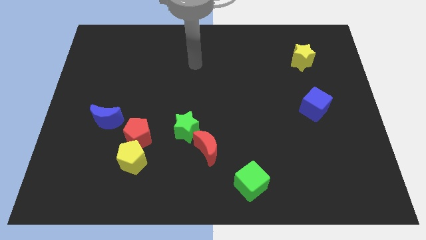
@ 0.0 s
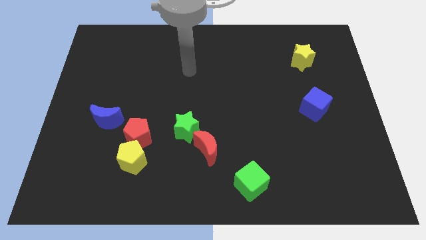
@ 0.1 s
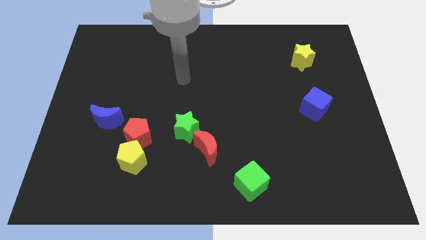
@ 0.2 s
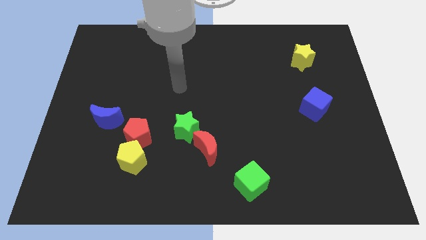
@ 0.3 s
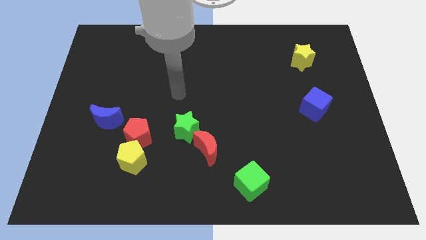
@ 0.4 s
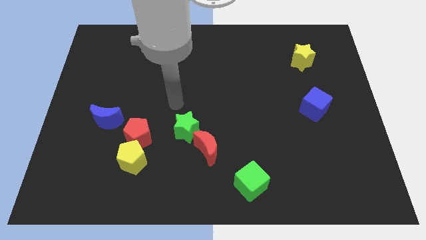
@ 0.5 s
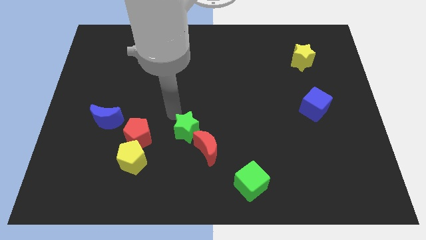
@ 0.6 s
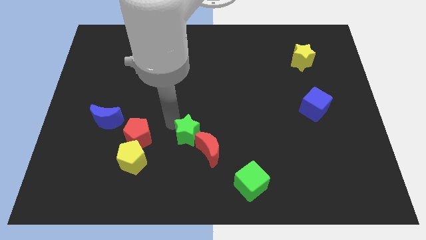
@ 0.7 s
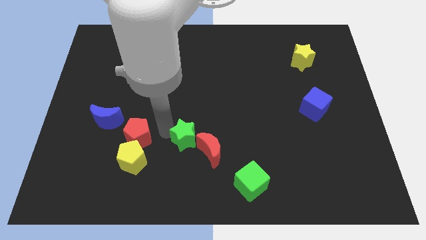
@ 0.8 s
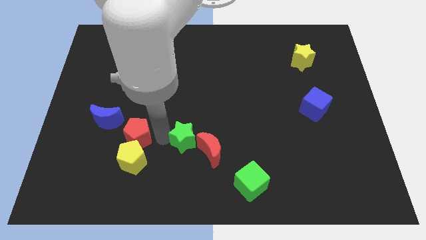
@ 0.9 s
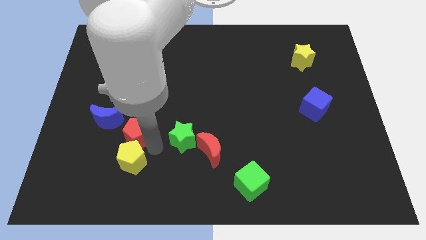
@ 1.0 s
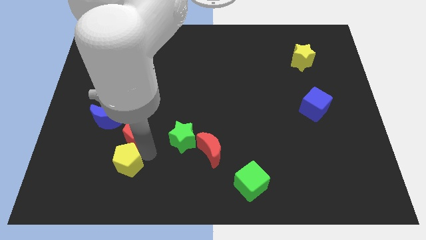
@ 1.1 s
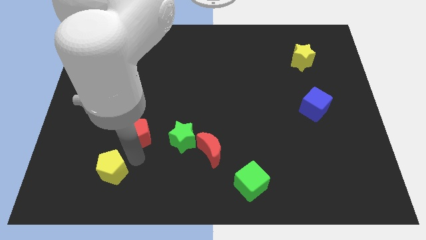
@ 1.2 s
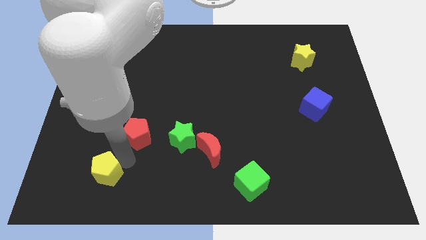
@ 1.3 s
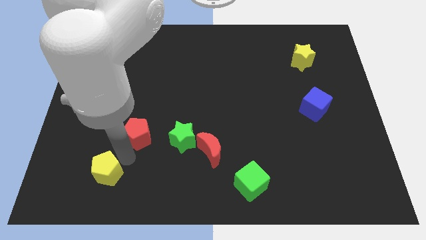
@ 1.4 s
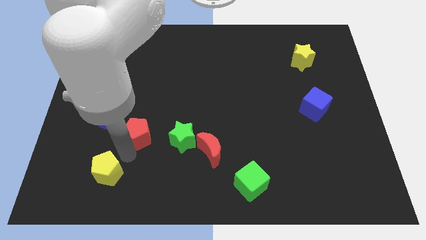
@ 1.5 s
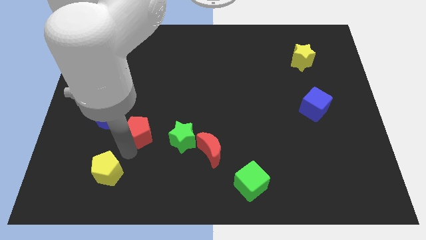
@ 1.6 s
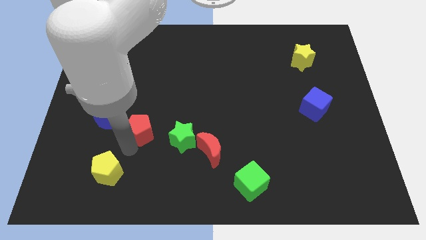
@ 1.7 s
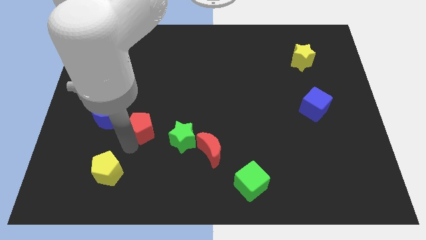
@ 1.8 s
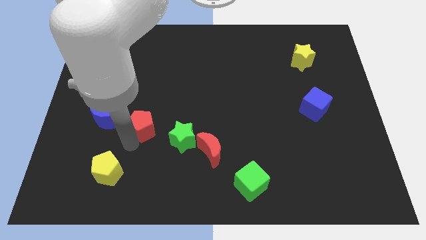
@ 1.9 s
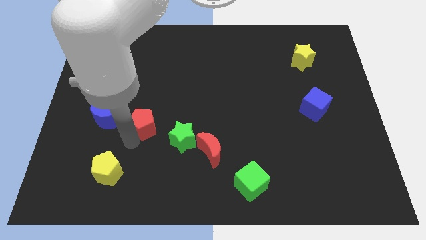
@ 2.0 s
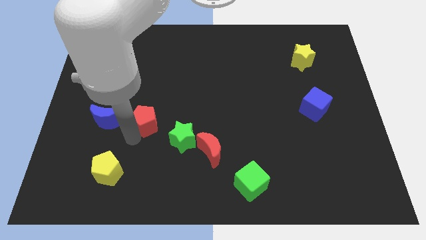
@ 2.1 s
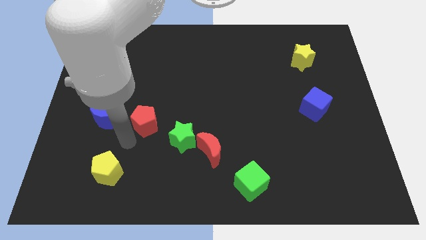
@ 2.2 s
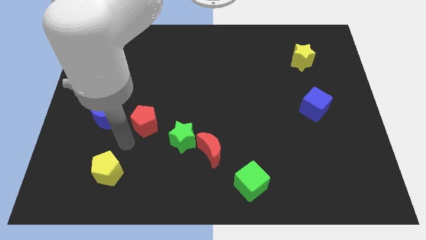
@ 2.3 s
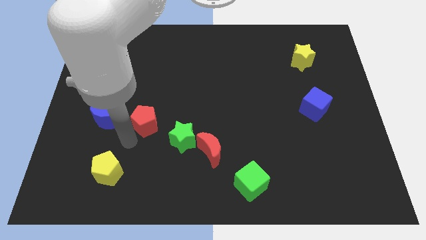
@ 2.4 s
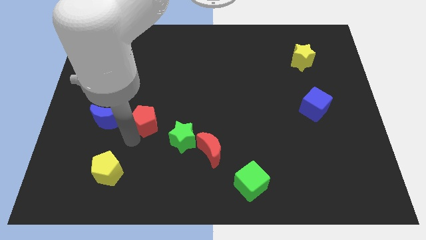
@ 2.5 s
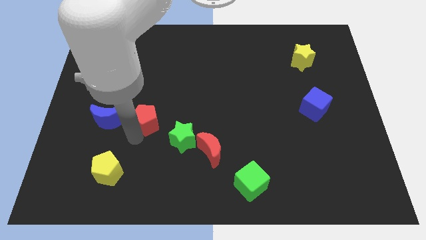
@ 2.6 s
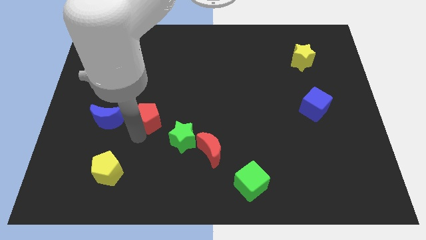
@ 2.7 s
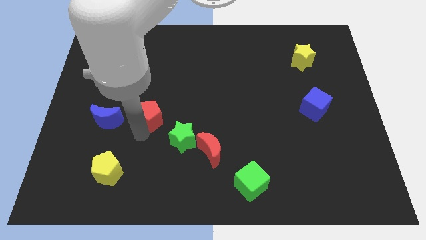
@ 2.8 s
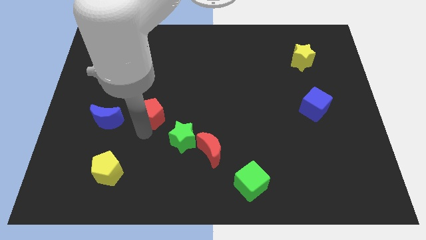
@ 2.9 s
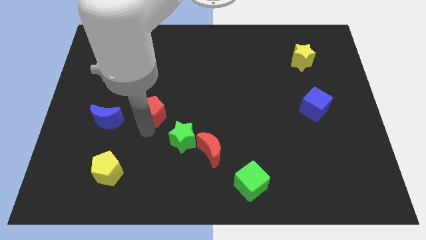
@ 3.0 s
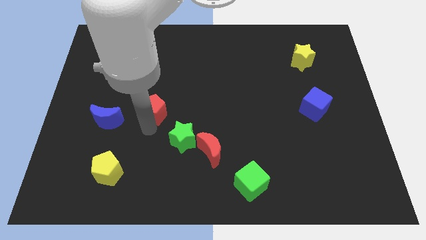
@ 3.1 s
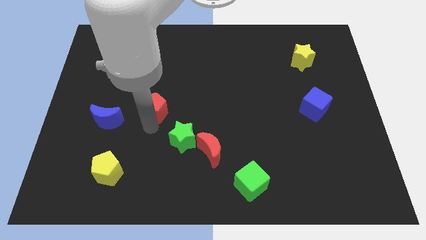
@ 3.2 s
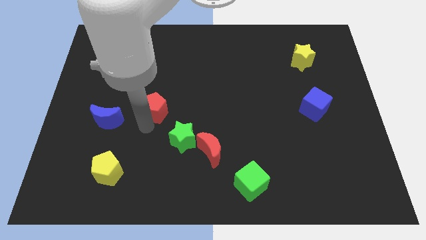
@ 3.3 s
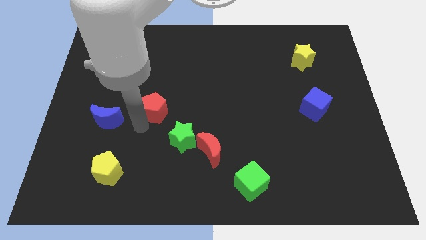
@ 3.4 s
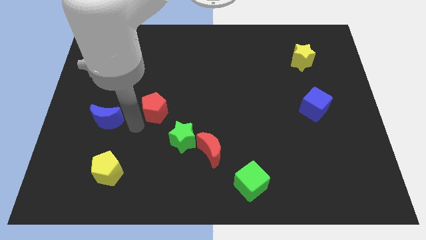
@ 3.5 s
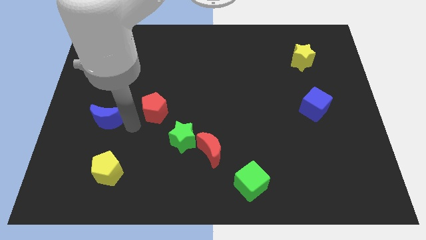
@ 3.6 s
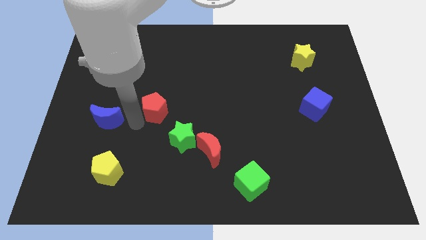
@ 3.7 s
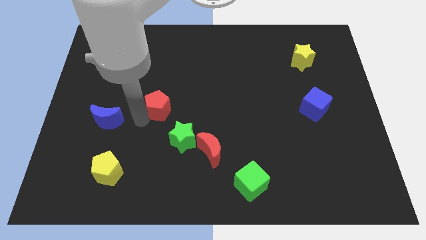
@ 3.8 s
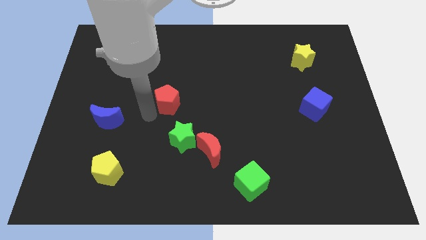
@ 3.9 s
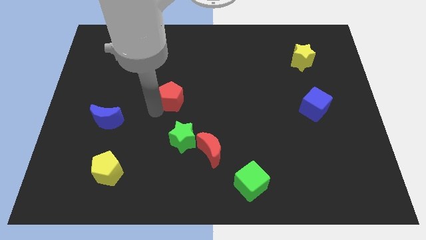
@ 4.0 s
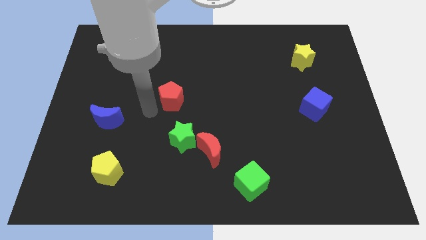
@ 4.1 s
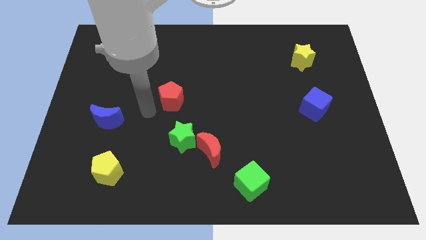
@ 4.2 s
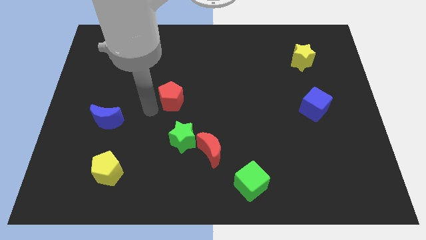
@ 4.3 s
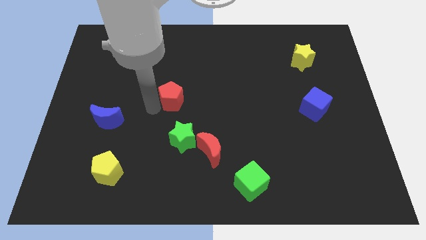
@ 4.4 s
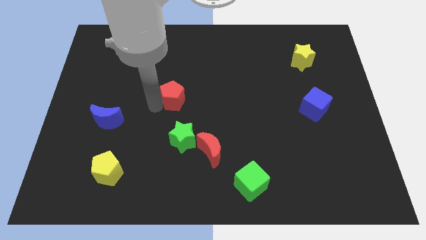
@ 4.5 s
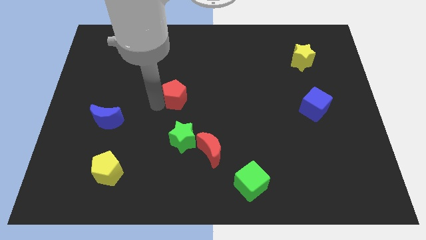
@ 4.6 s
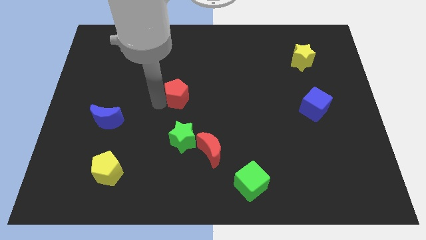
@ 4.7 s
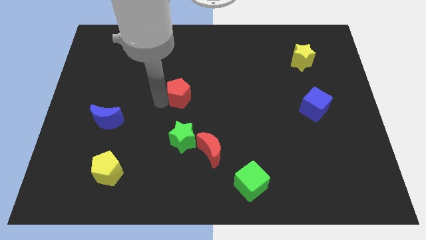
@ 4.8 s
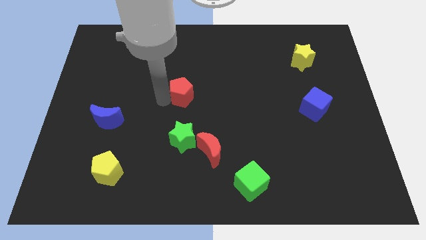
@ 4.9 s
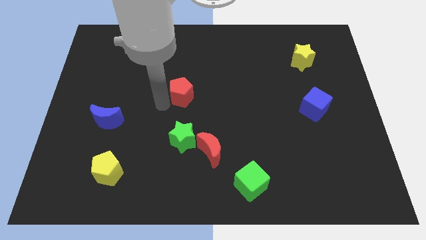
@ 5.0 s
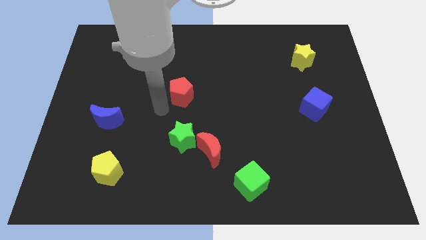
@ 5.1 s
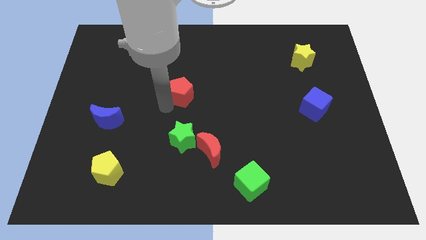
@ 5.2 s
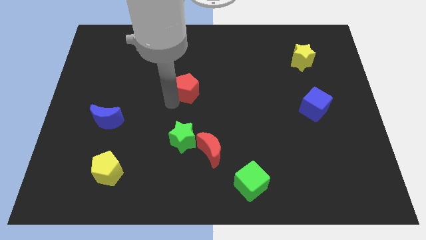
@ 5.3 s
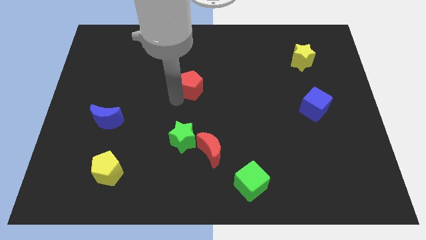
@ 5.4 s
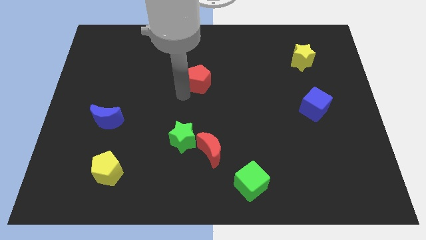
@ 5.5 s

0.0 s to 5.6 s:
slide the red pentagon up and to the right

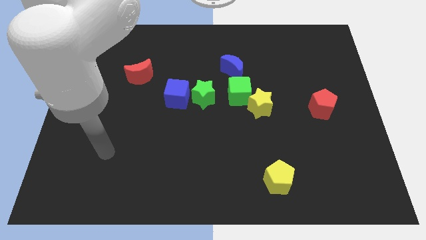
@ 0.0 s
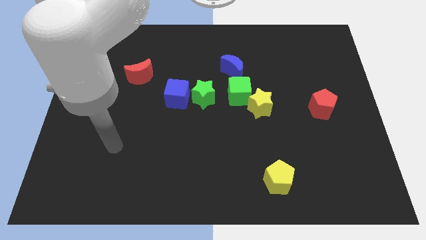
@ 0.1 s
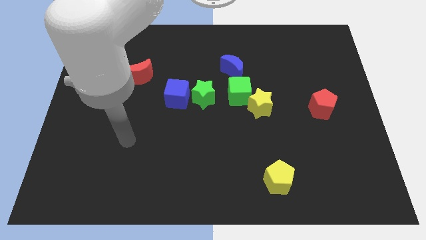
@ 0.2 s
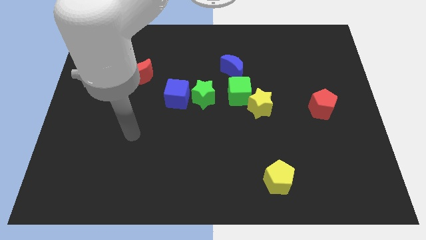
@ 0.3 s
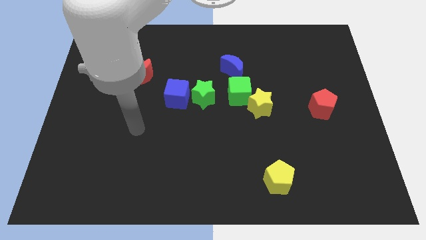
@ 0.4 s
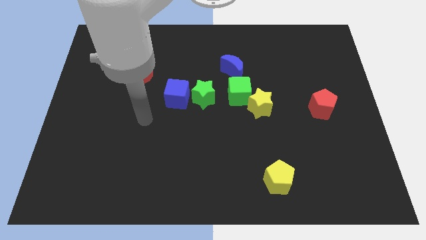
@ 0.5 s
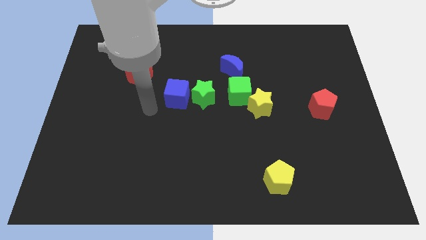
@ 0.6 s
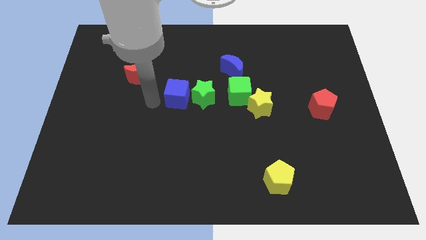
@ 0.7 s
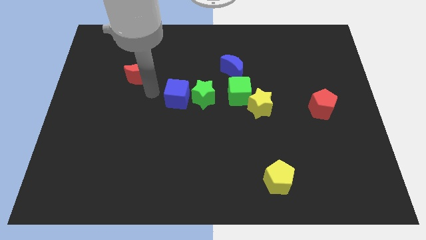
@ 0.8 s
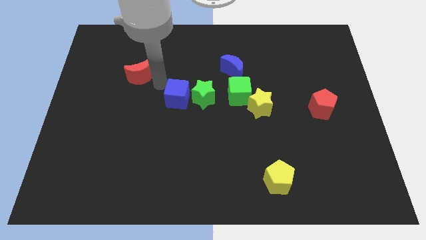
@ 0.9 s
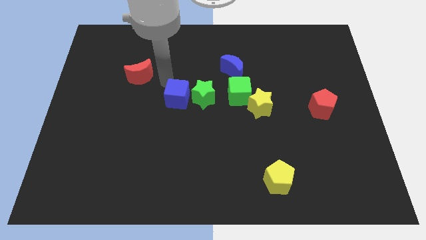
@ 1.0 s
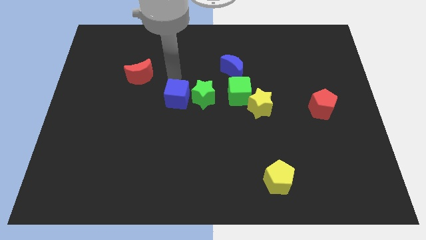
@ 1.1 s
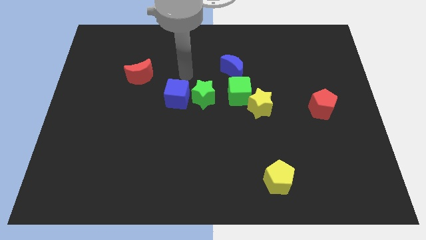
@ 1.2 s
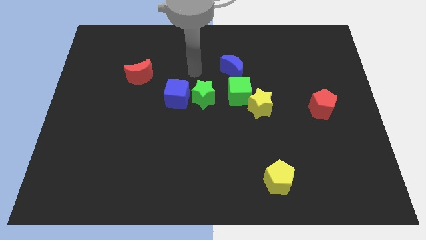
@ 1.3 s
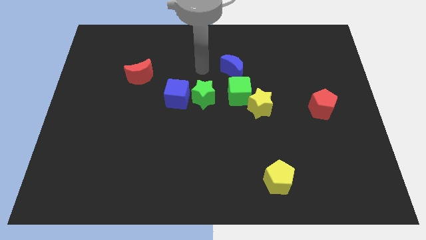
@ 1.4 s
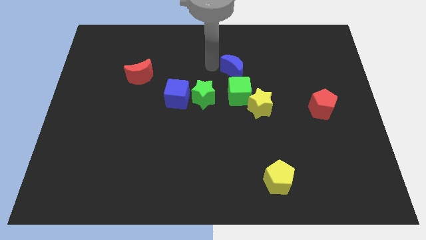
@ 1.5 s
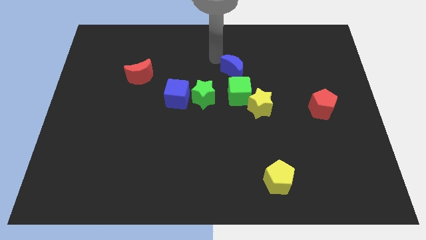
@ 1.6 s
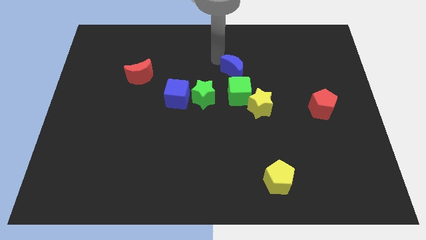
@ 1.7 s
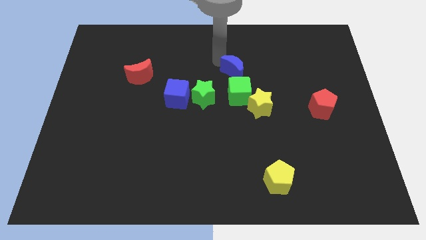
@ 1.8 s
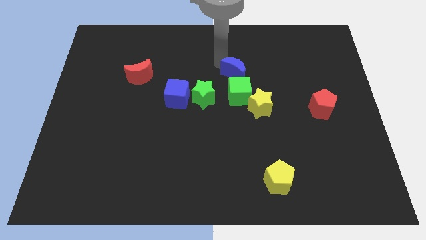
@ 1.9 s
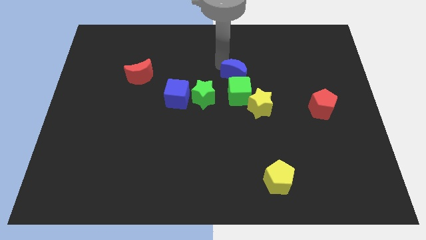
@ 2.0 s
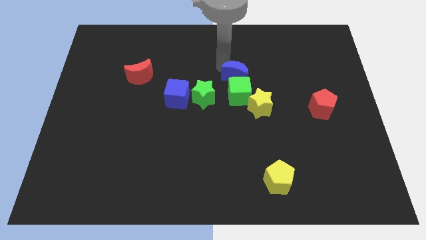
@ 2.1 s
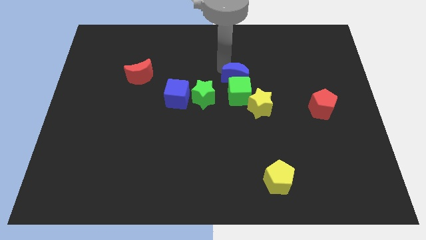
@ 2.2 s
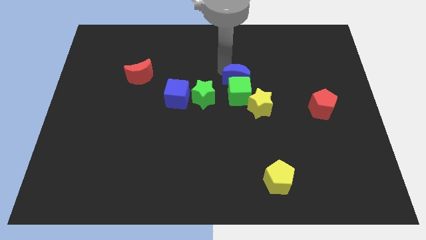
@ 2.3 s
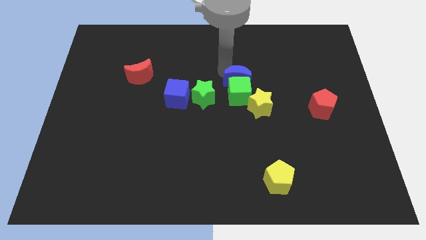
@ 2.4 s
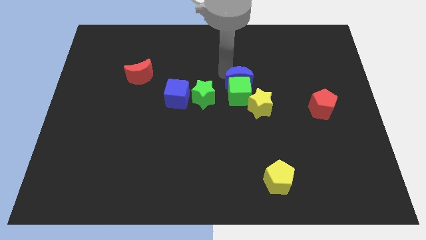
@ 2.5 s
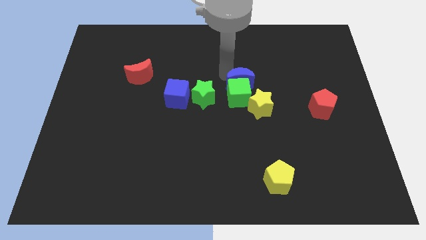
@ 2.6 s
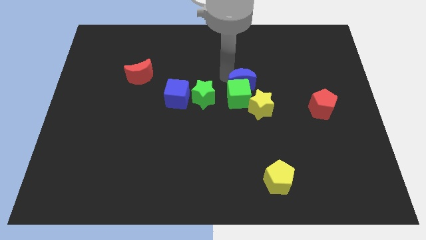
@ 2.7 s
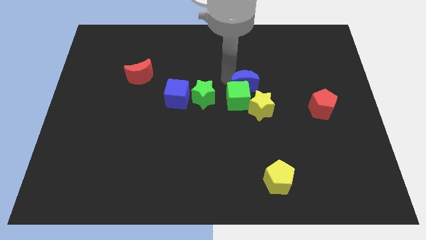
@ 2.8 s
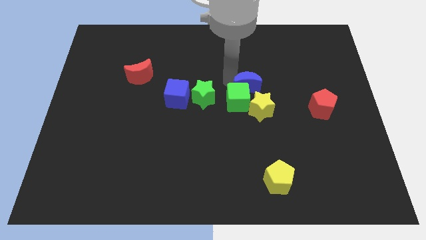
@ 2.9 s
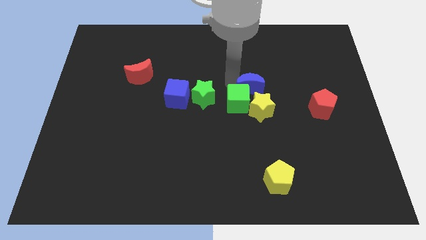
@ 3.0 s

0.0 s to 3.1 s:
slightly push the blue moon down and to the right
